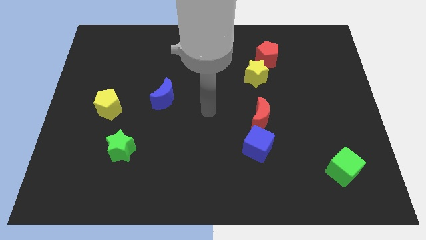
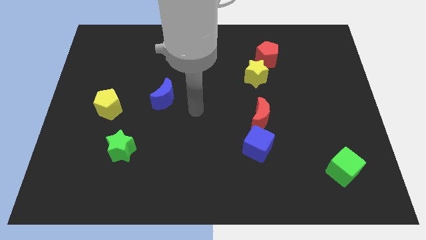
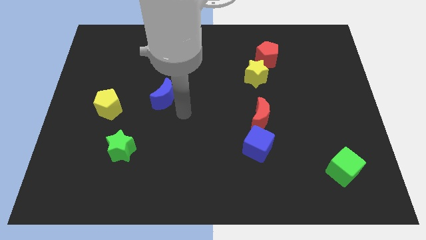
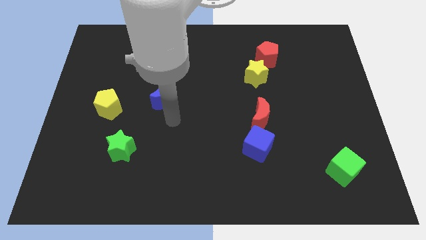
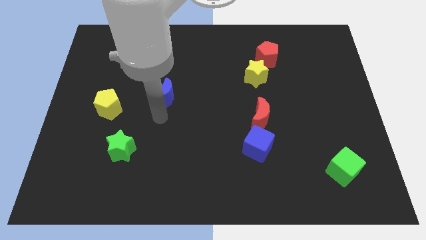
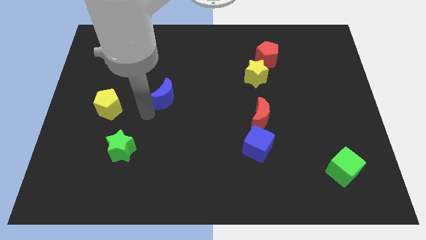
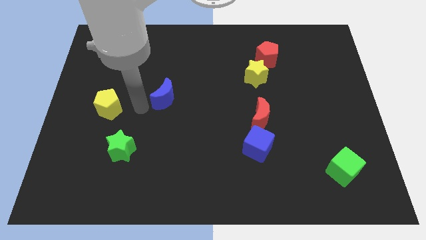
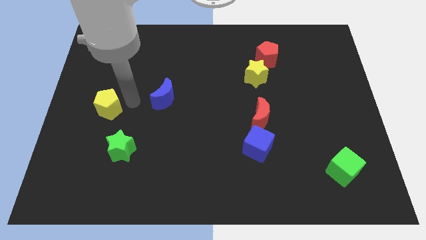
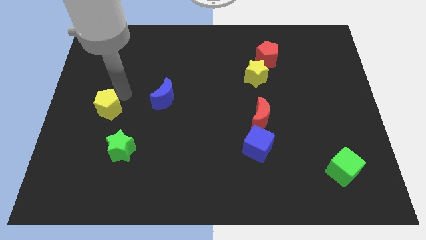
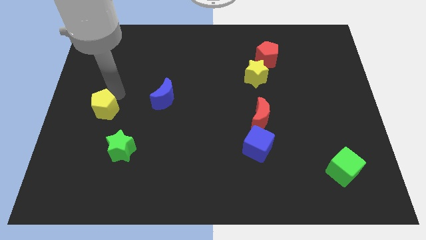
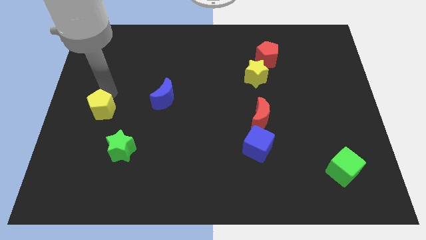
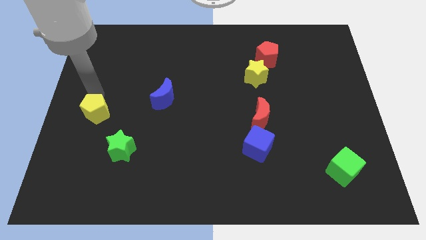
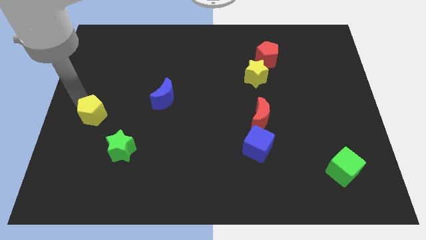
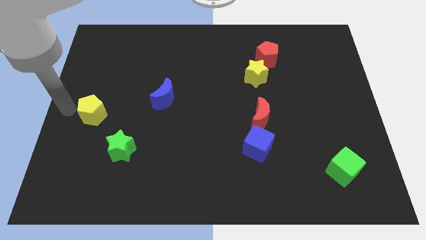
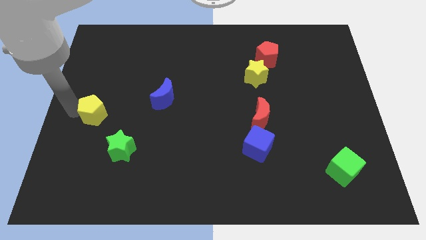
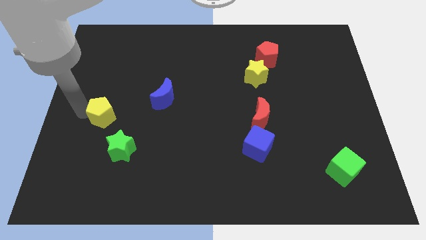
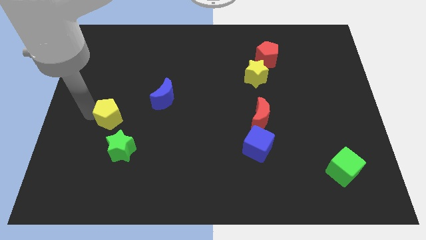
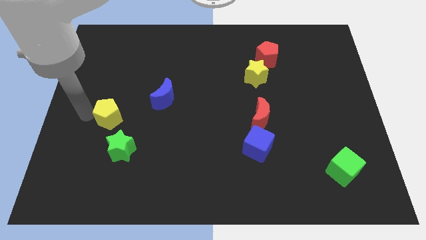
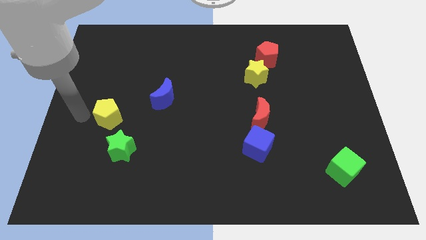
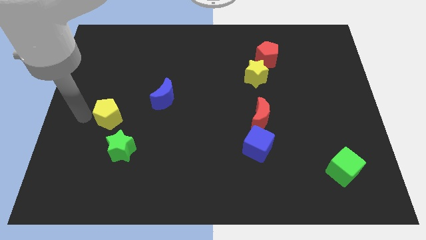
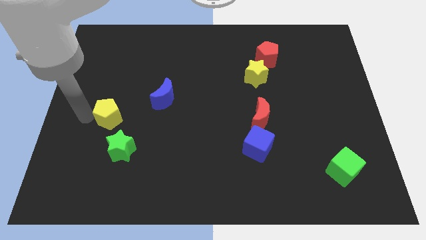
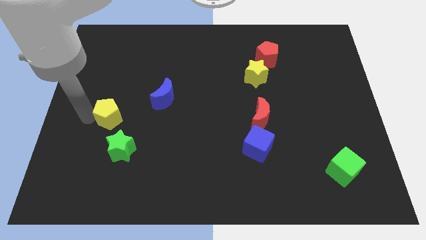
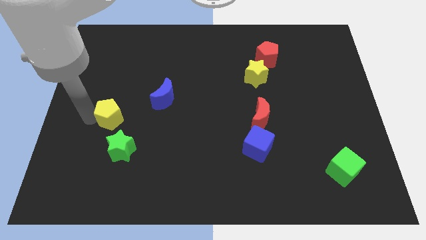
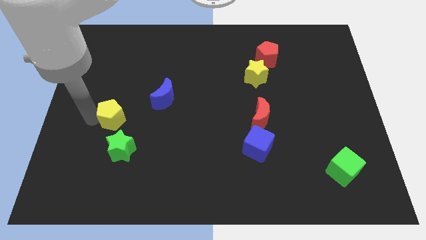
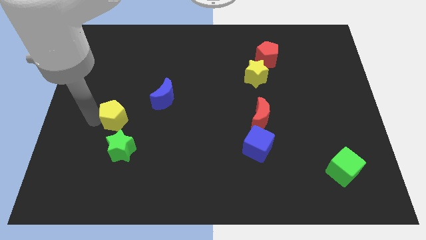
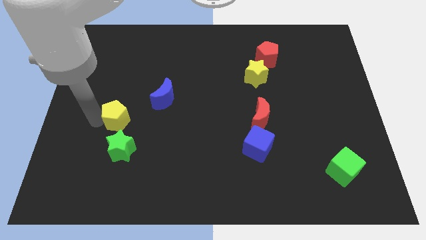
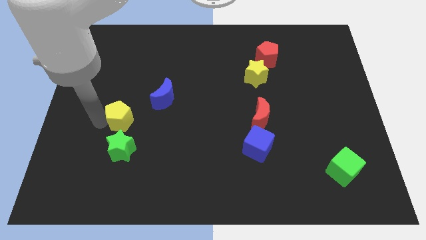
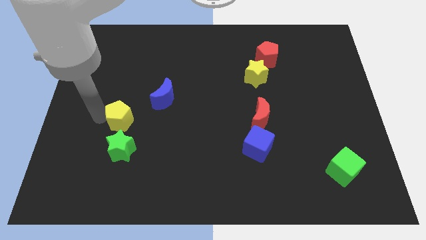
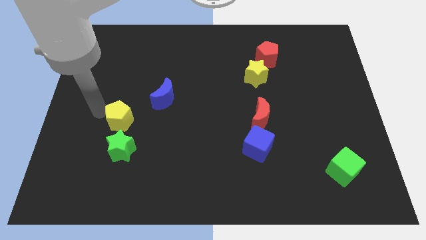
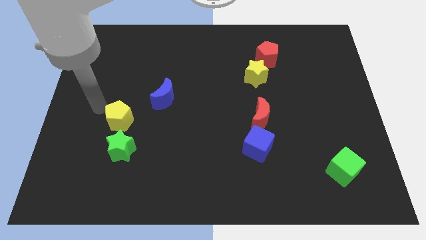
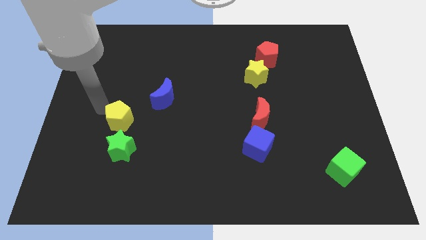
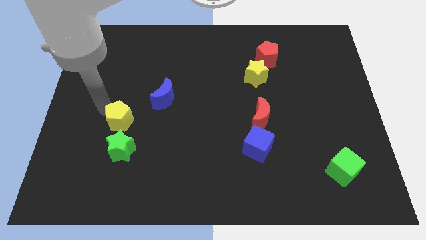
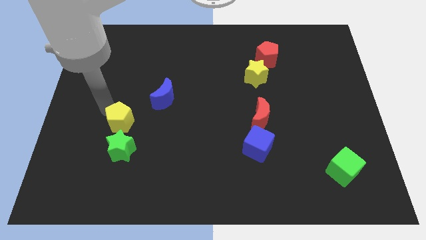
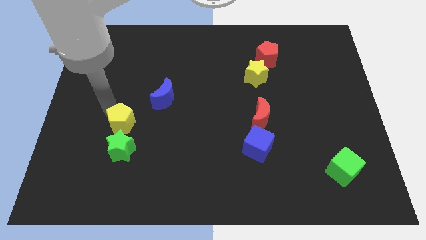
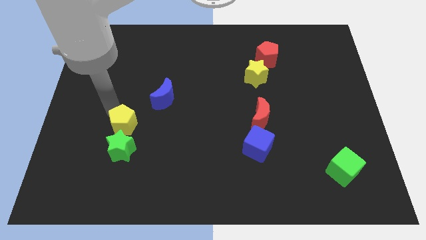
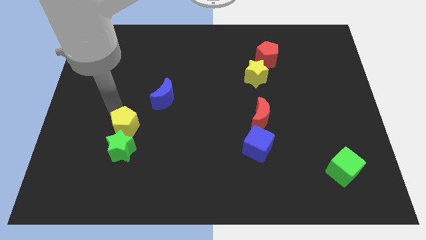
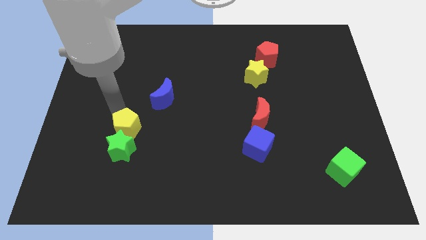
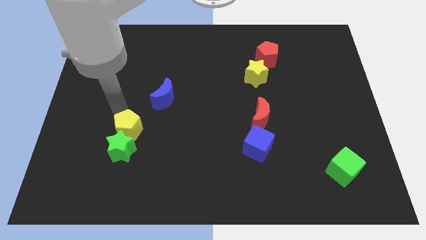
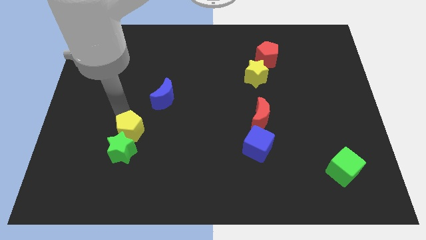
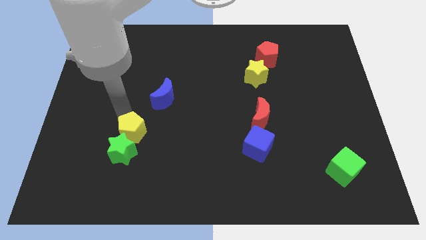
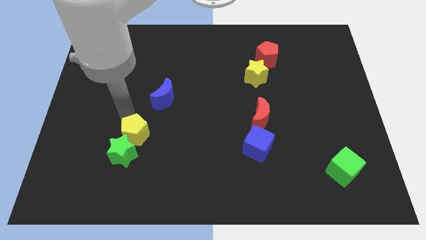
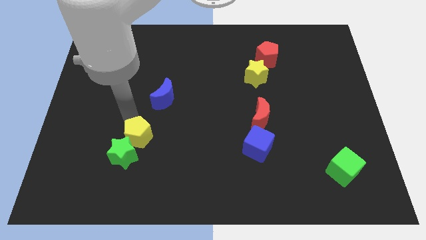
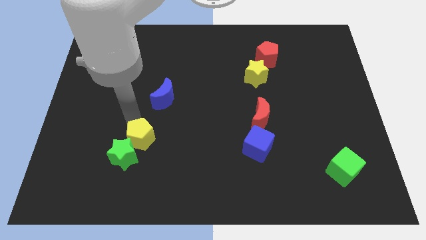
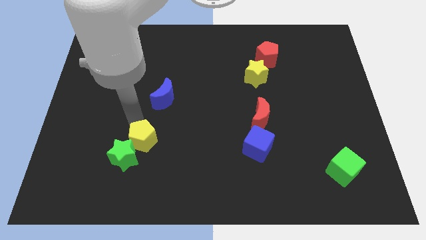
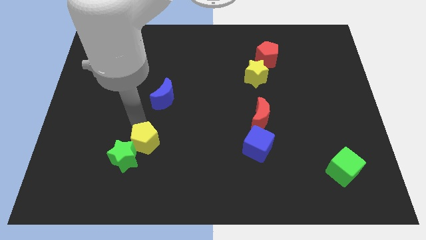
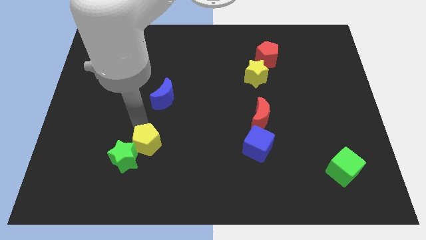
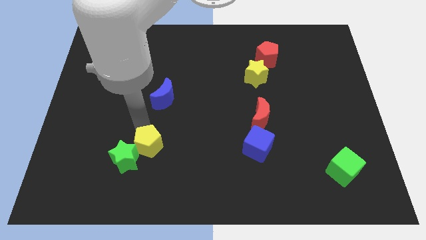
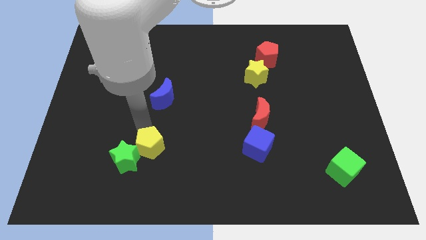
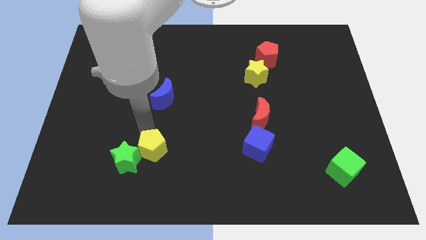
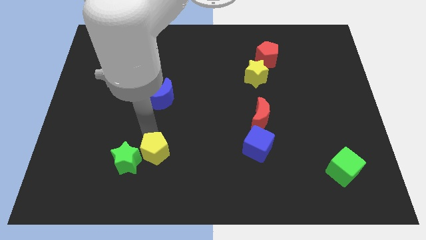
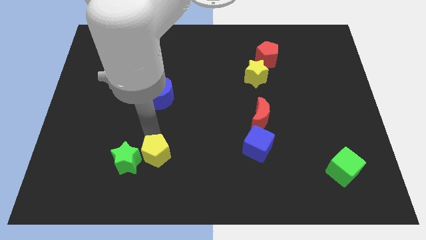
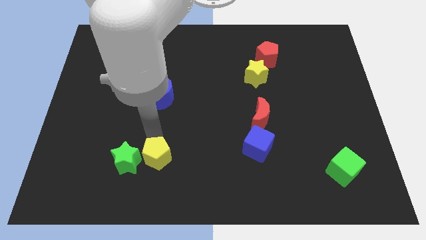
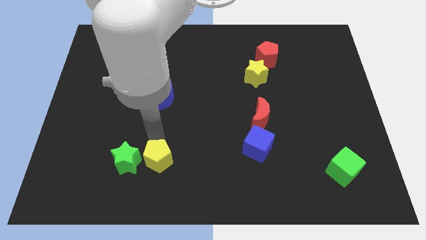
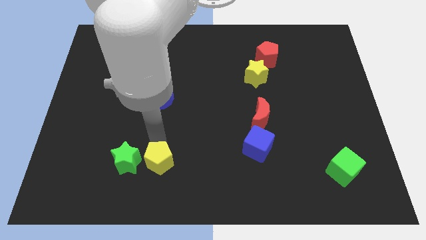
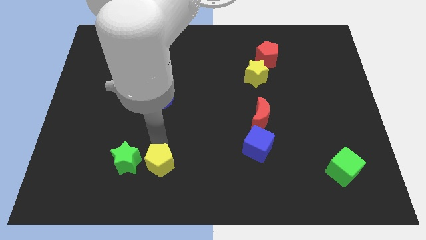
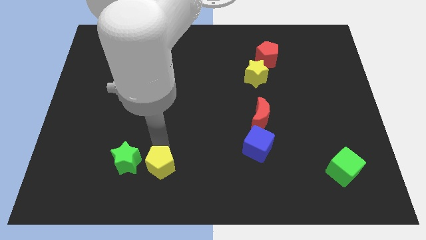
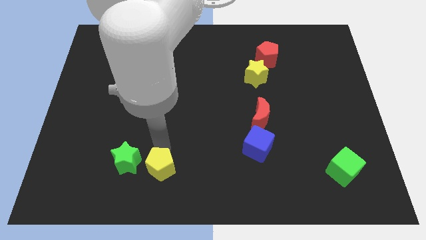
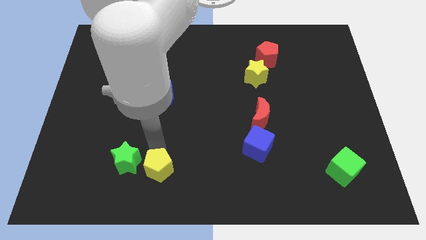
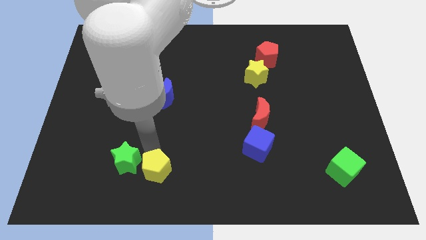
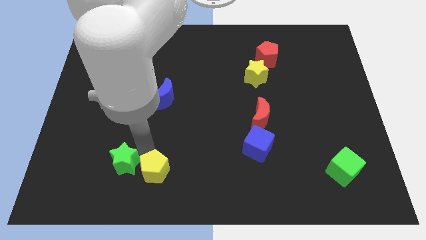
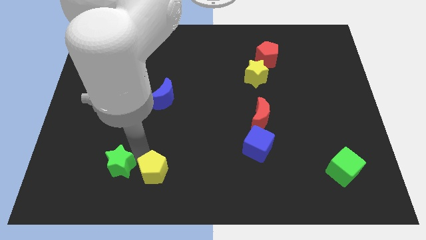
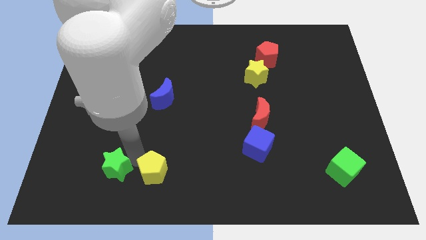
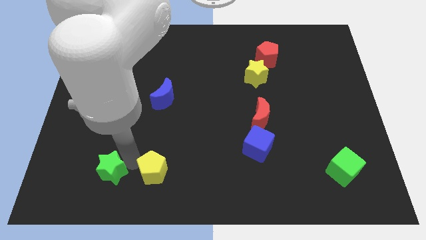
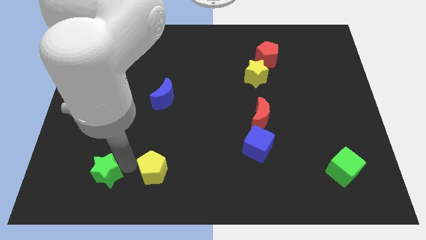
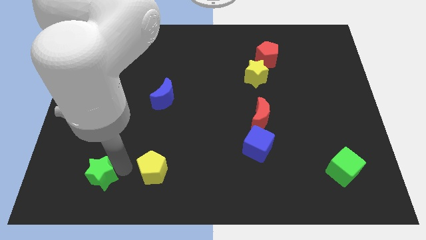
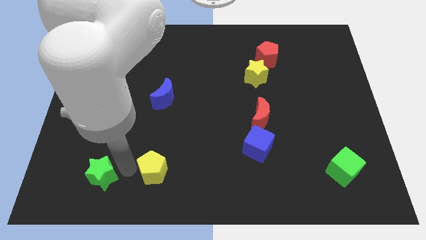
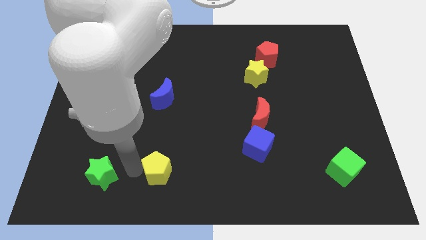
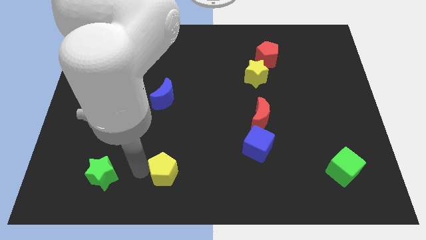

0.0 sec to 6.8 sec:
push the yellow pentagon to the bottom
